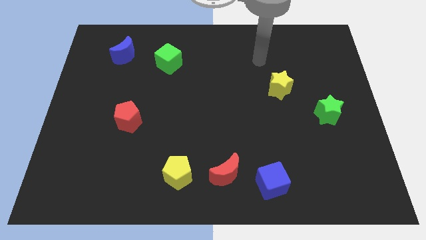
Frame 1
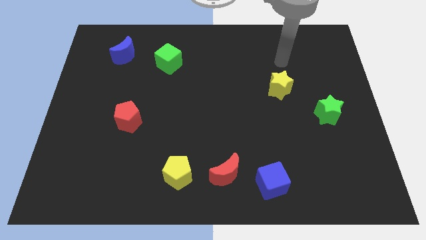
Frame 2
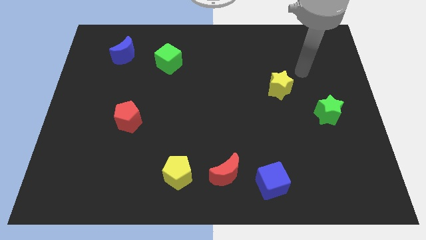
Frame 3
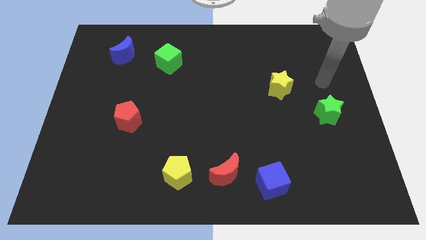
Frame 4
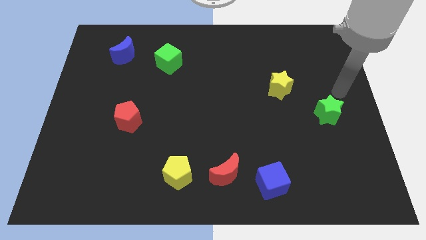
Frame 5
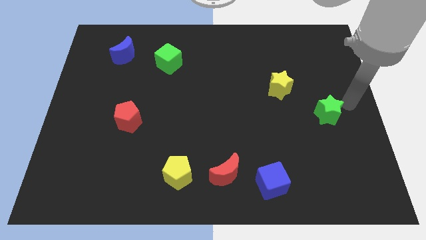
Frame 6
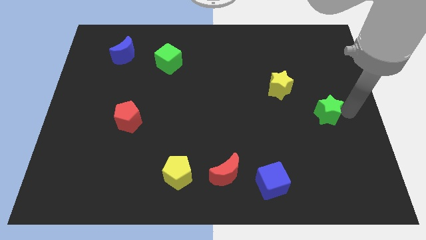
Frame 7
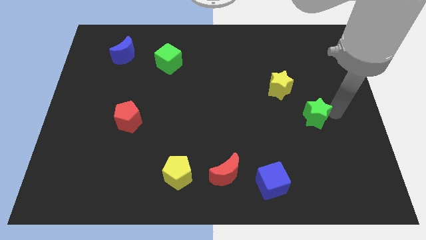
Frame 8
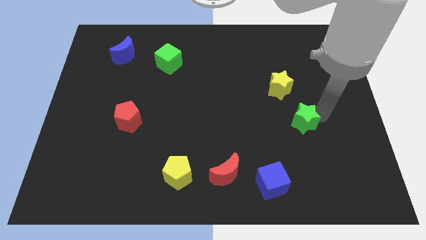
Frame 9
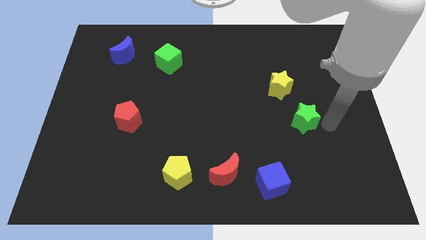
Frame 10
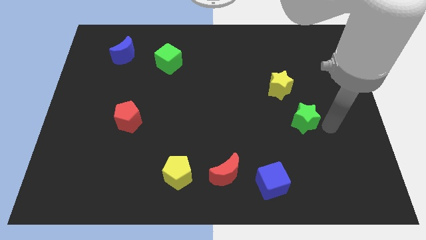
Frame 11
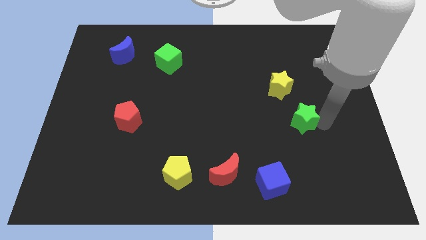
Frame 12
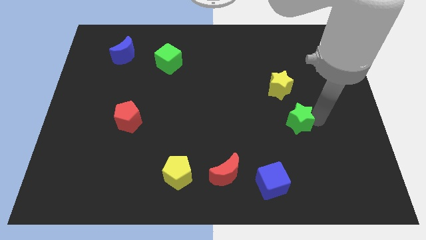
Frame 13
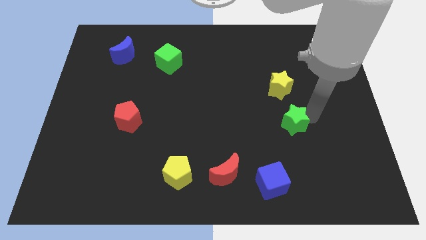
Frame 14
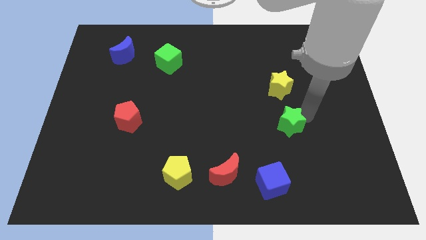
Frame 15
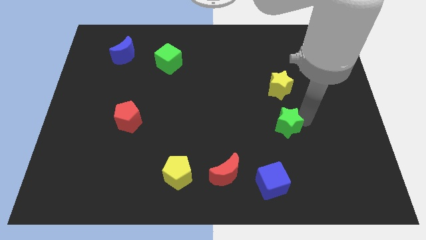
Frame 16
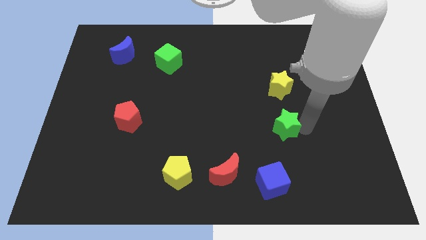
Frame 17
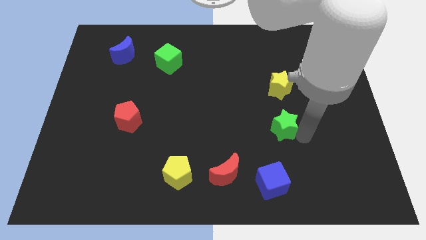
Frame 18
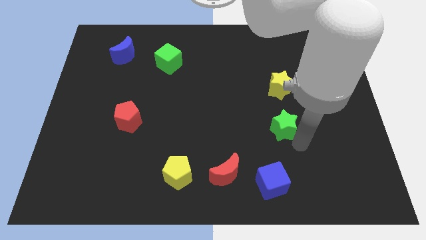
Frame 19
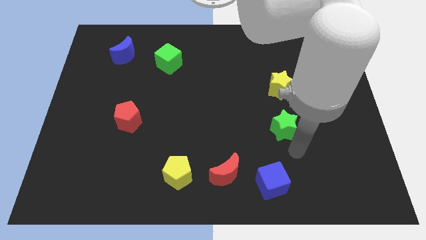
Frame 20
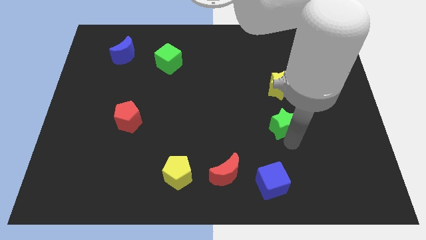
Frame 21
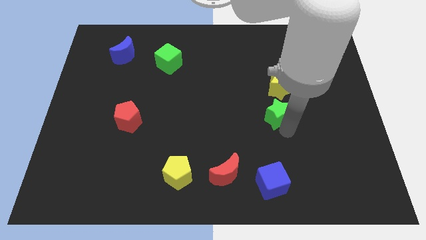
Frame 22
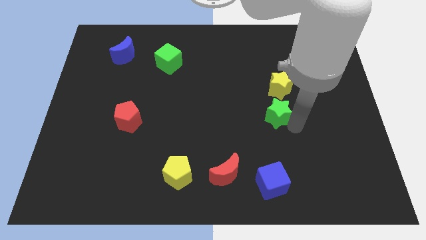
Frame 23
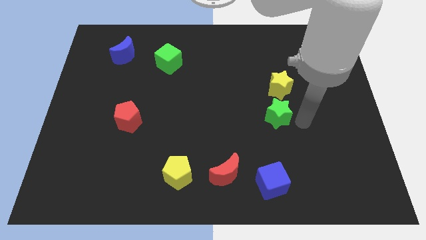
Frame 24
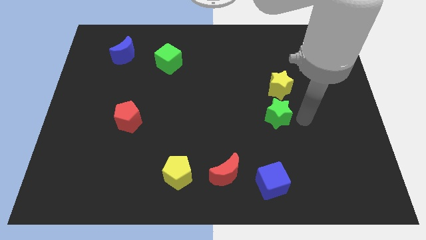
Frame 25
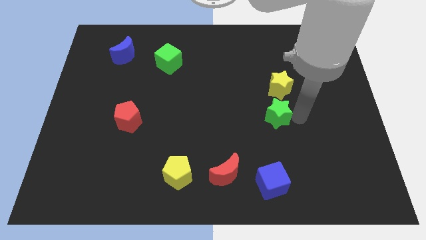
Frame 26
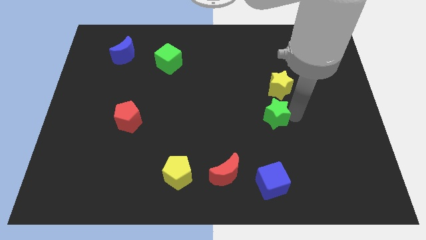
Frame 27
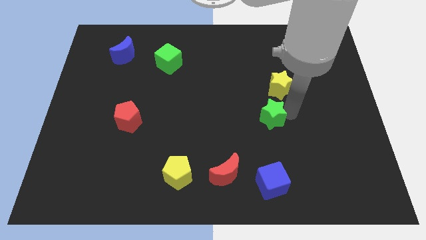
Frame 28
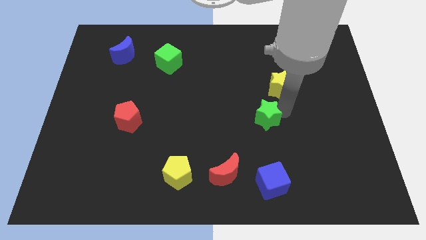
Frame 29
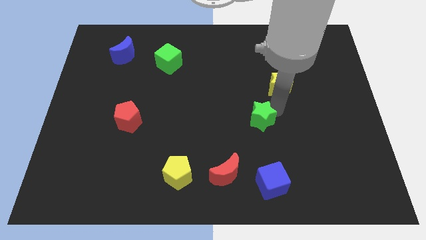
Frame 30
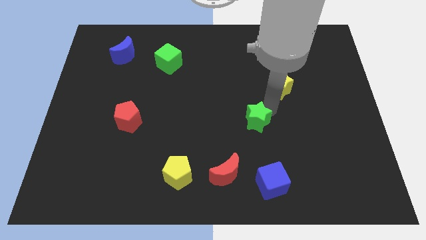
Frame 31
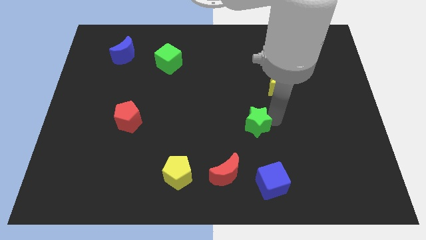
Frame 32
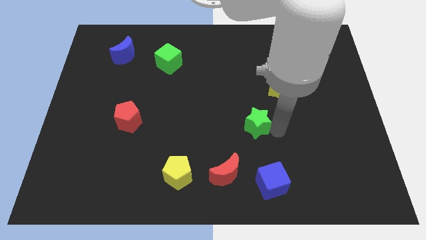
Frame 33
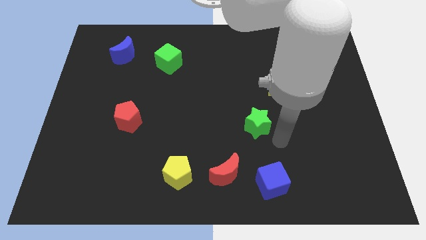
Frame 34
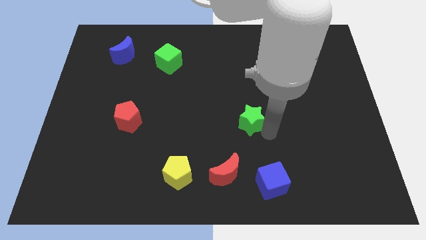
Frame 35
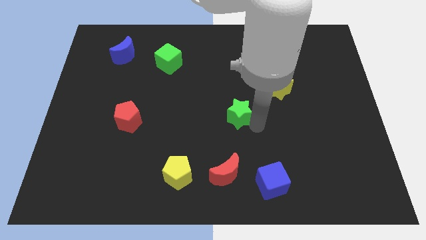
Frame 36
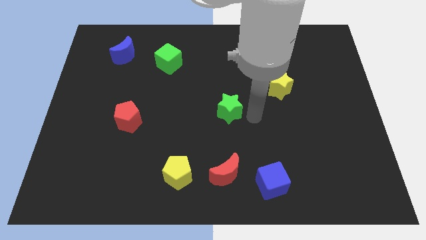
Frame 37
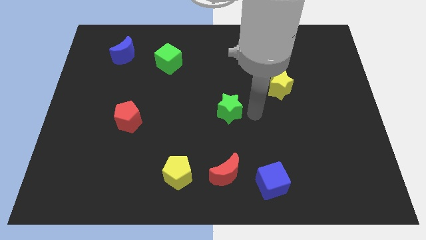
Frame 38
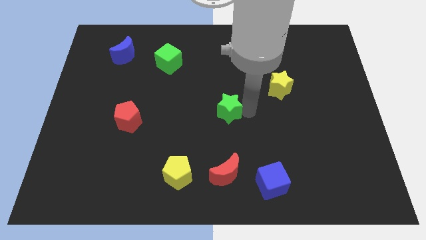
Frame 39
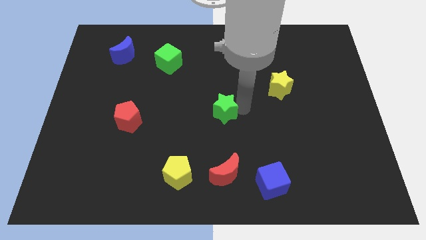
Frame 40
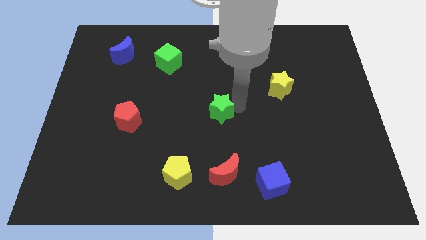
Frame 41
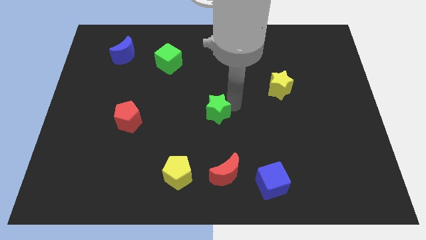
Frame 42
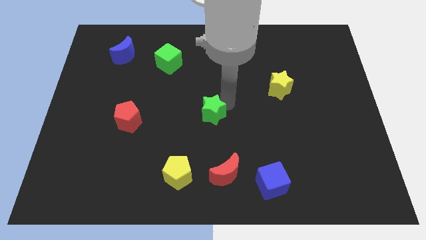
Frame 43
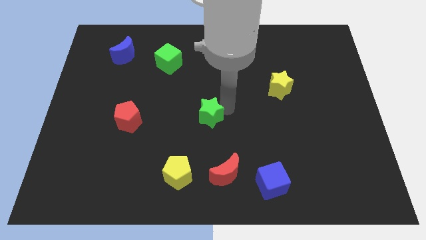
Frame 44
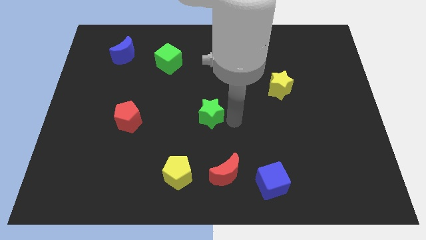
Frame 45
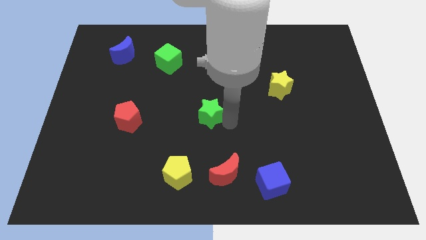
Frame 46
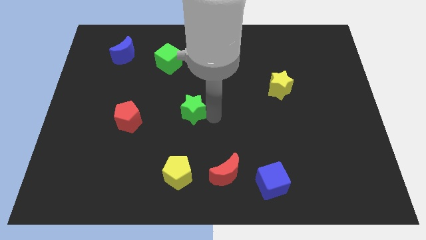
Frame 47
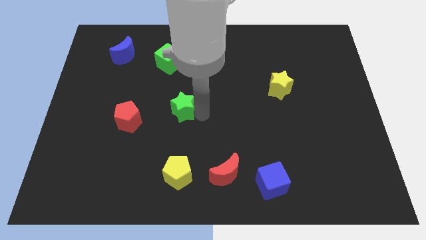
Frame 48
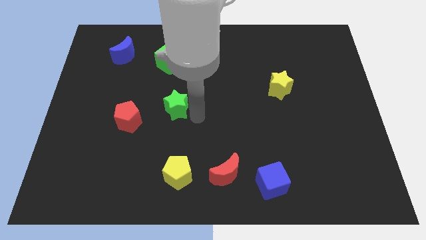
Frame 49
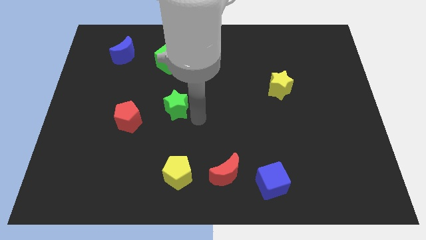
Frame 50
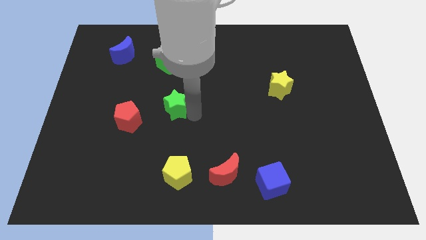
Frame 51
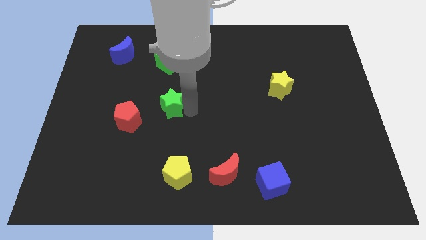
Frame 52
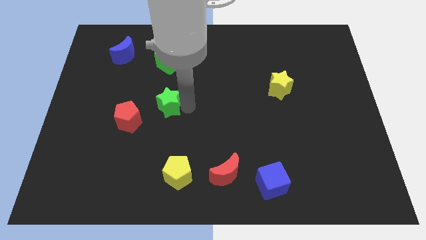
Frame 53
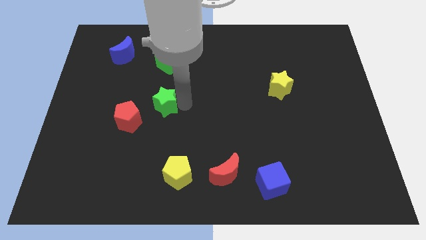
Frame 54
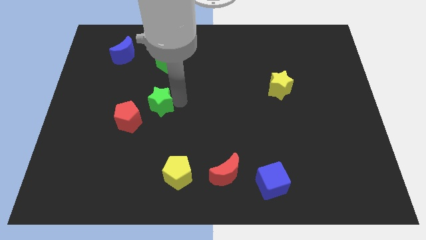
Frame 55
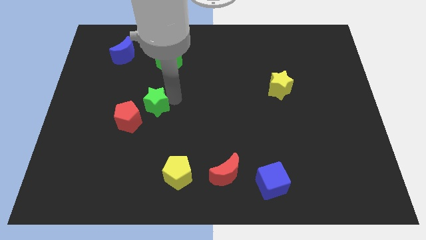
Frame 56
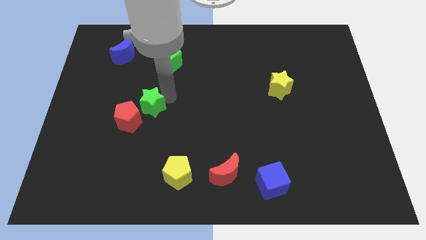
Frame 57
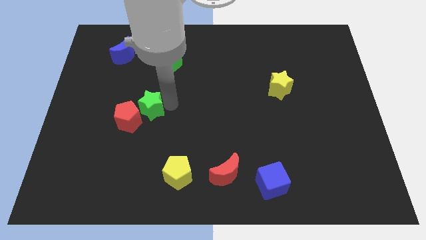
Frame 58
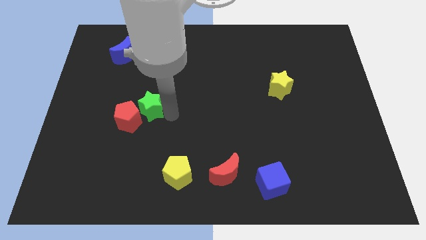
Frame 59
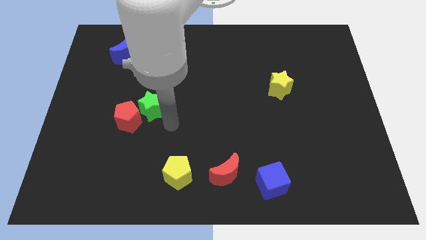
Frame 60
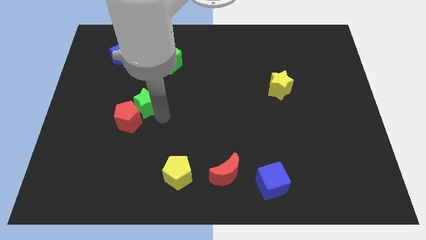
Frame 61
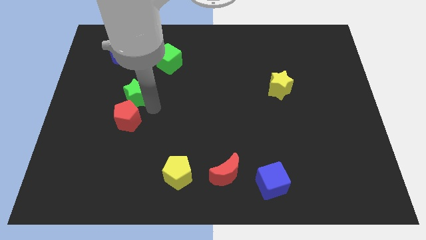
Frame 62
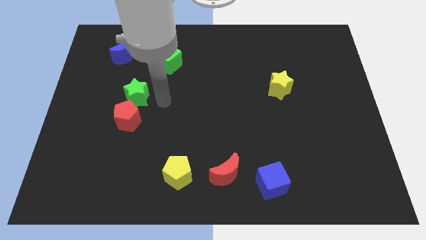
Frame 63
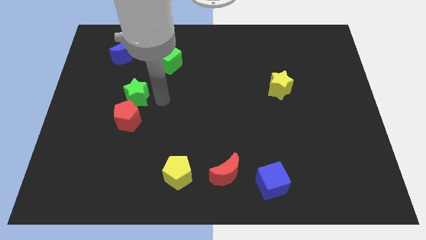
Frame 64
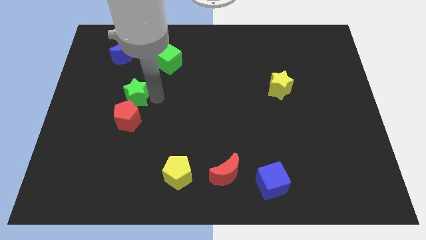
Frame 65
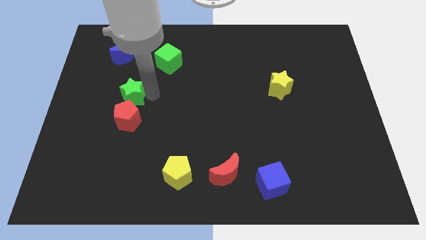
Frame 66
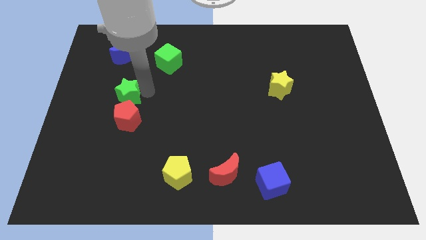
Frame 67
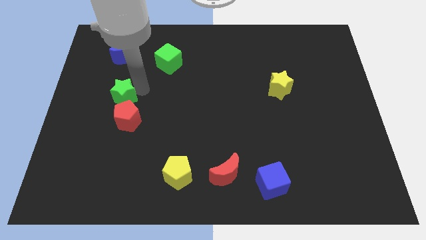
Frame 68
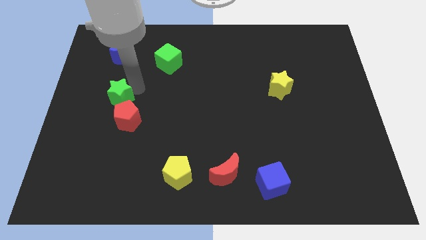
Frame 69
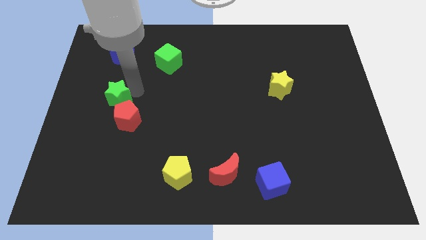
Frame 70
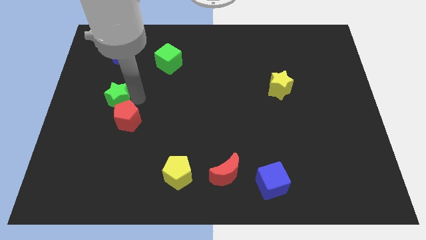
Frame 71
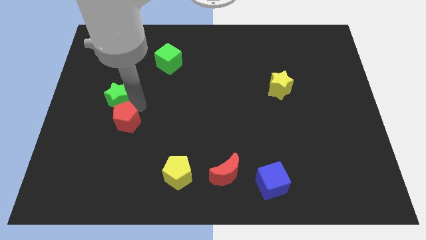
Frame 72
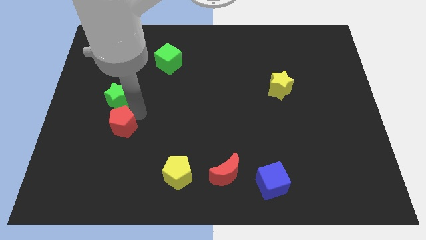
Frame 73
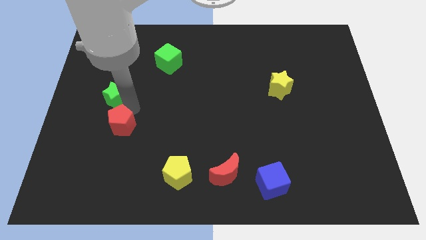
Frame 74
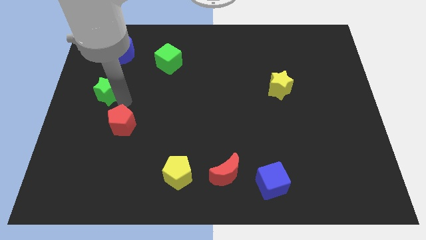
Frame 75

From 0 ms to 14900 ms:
move the green star to the left side
